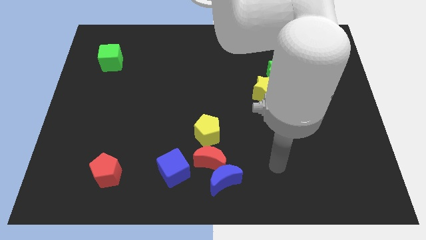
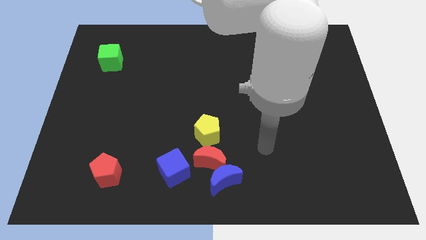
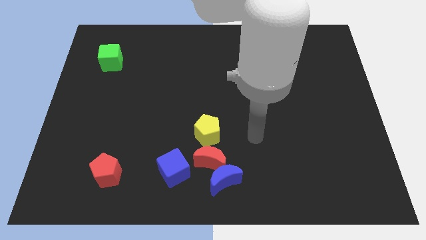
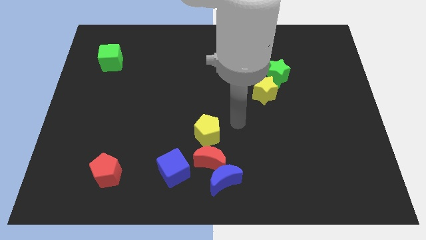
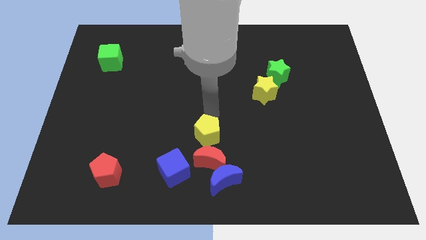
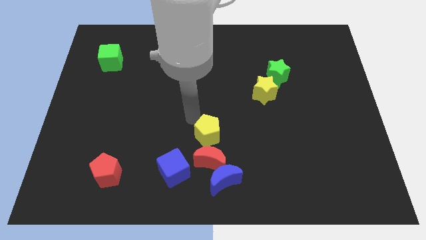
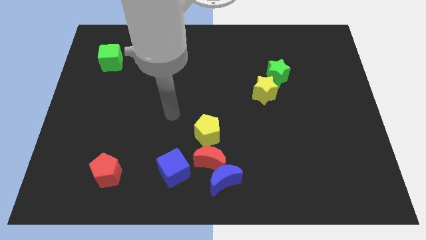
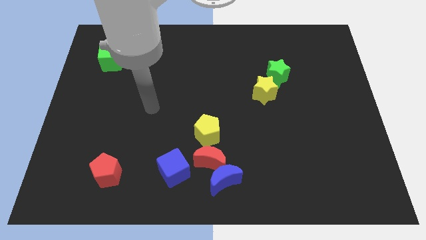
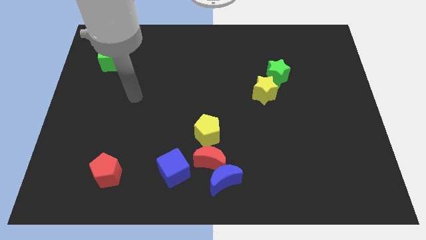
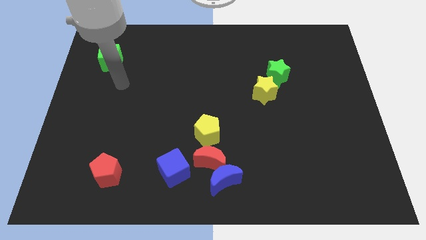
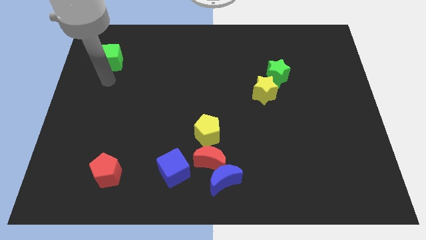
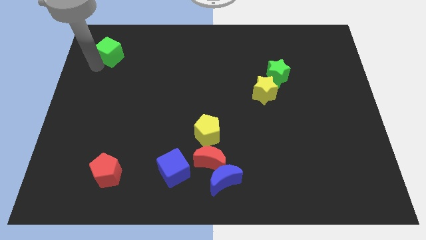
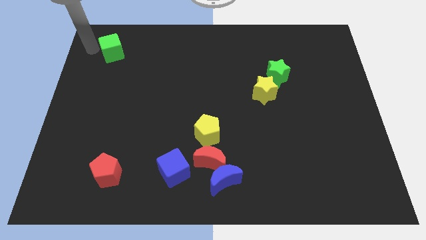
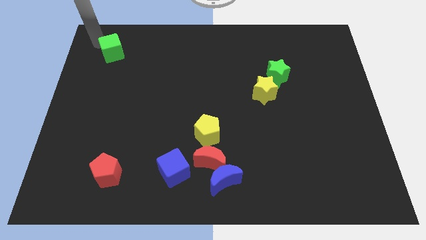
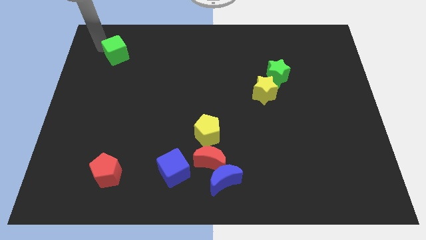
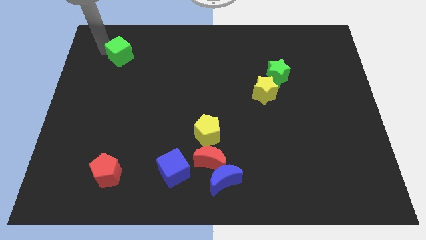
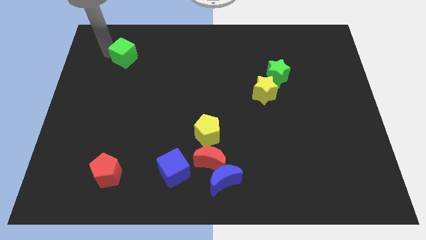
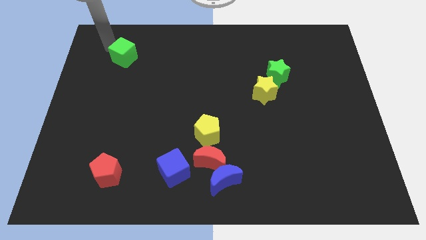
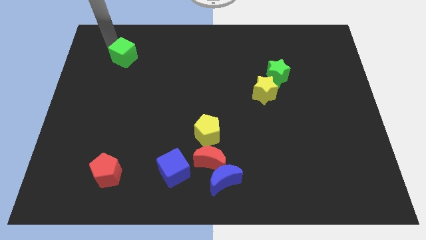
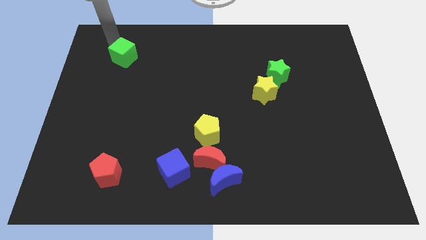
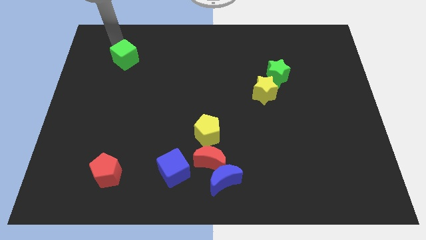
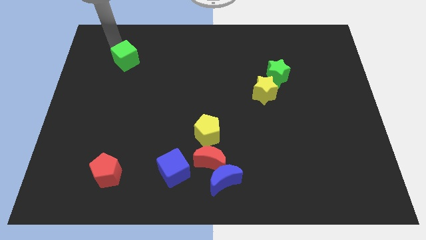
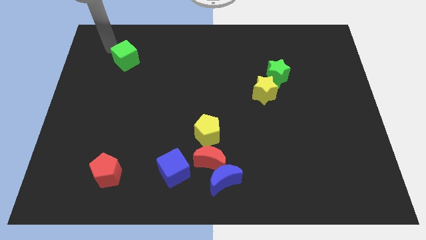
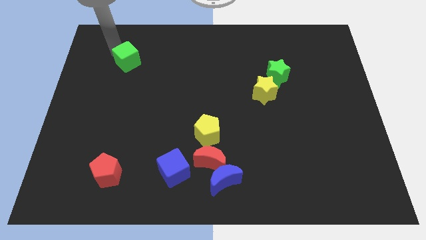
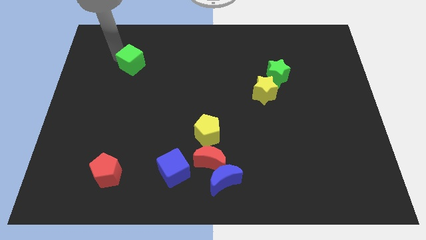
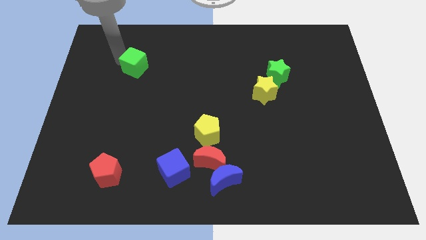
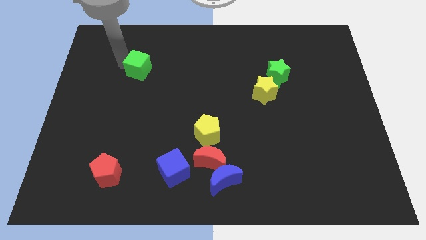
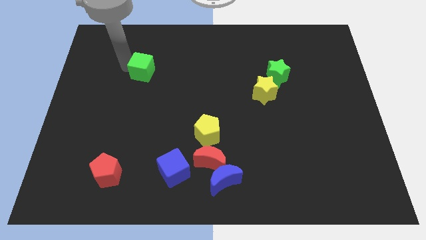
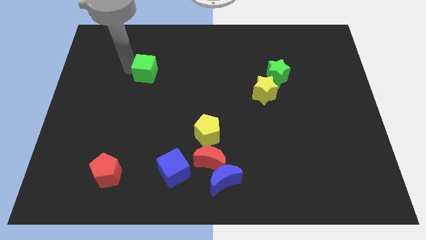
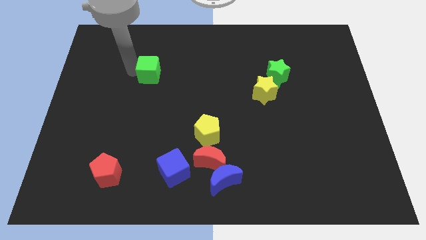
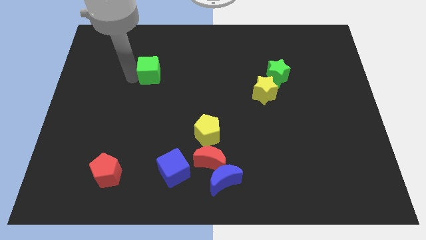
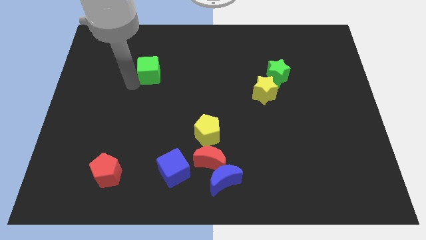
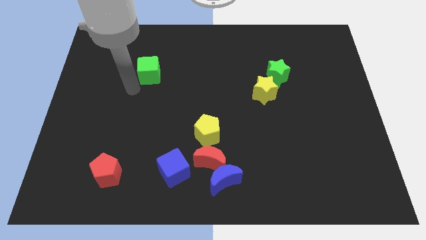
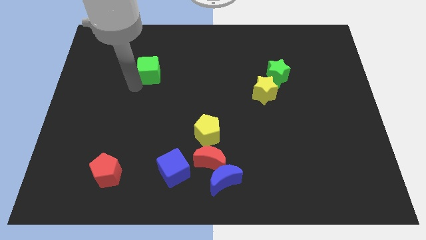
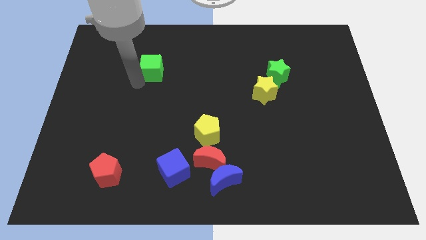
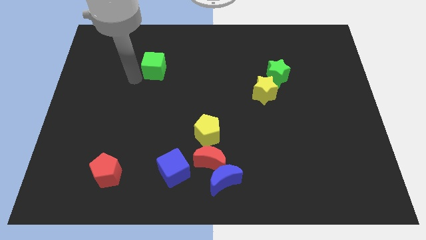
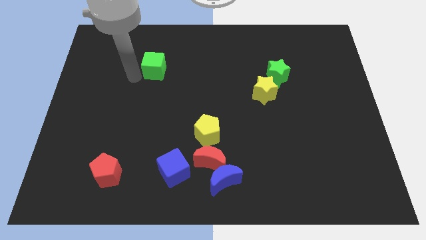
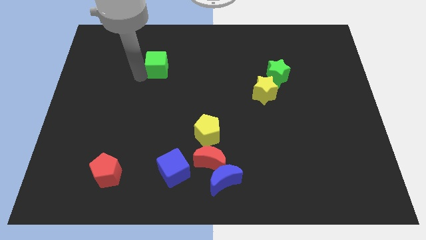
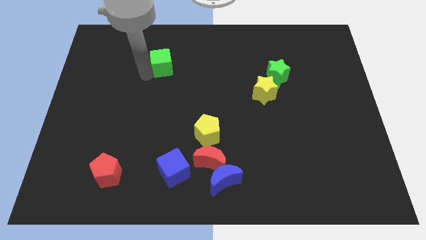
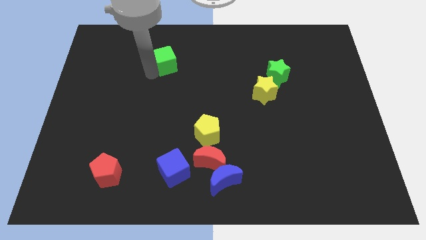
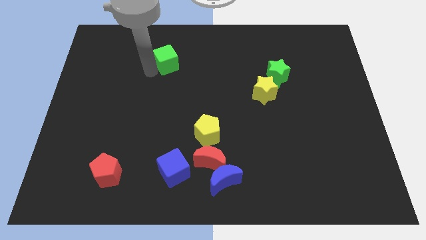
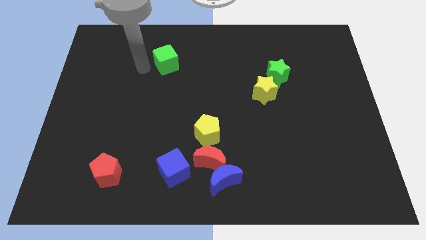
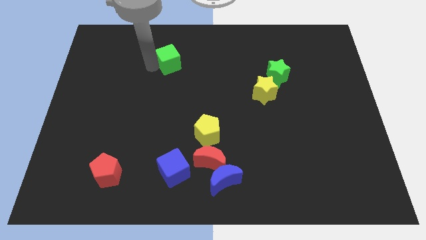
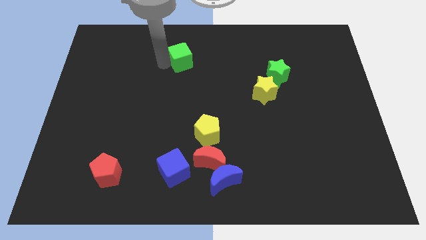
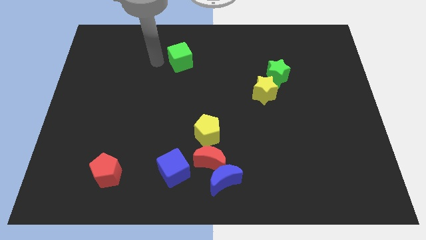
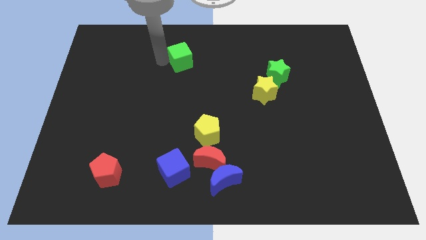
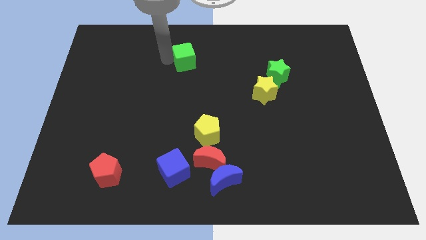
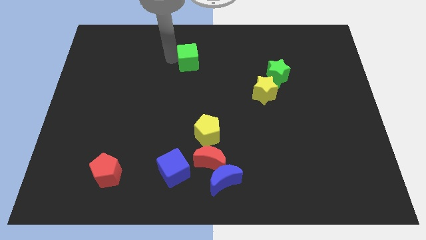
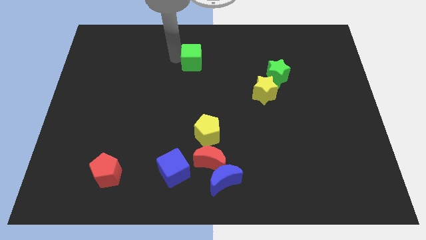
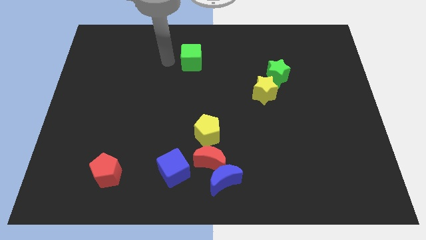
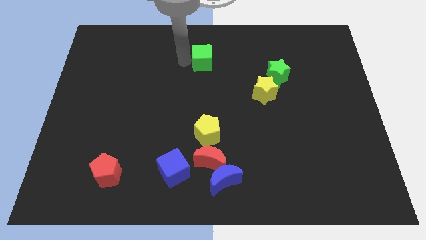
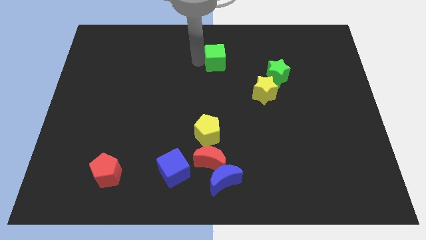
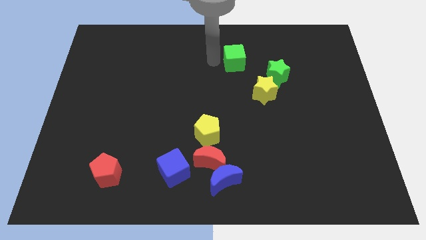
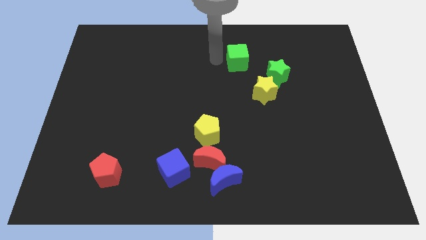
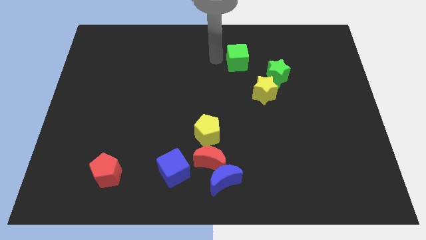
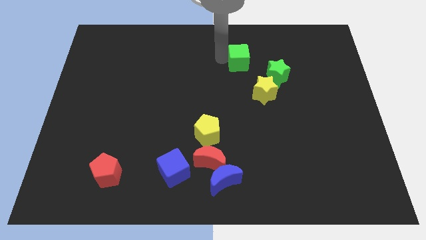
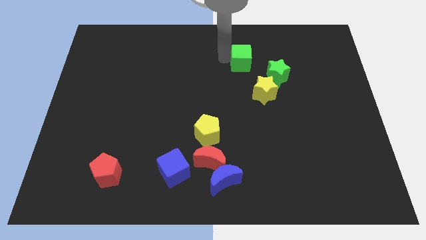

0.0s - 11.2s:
move the green cube to the top of the yellow star

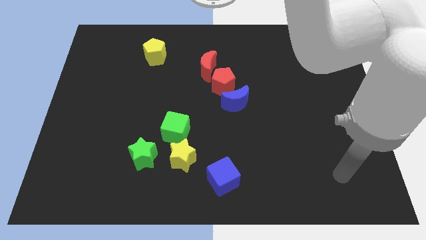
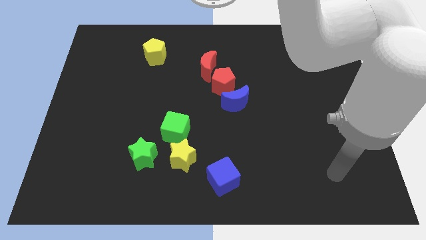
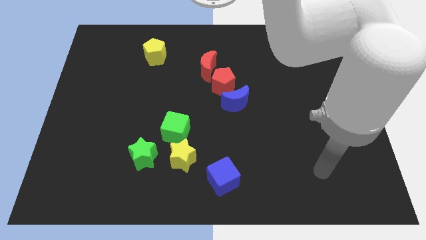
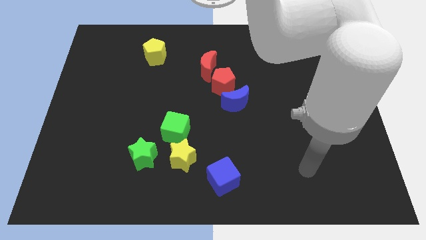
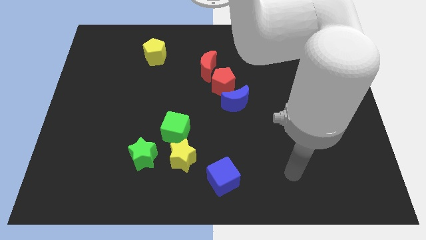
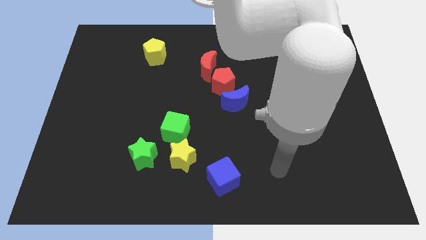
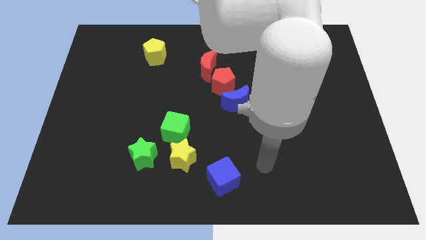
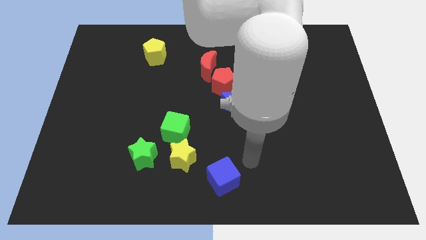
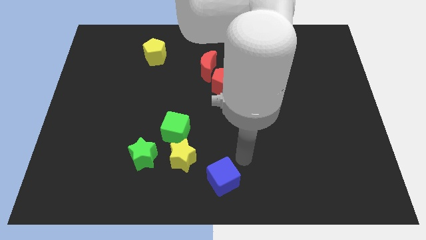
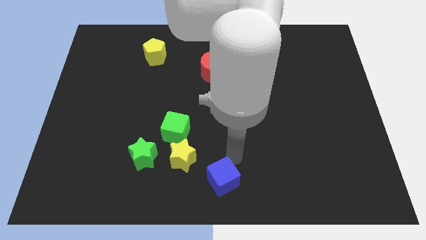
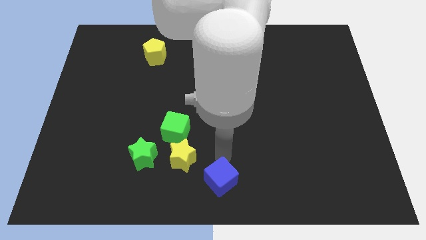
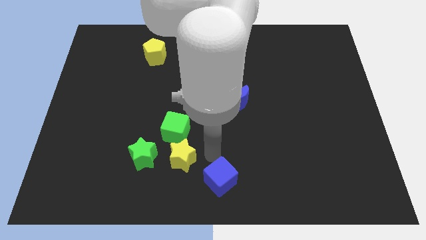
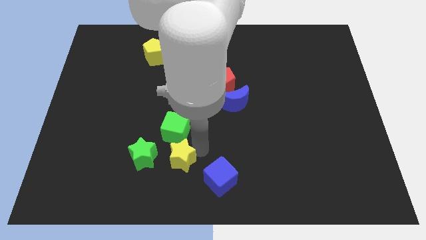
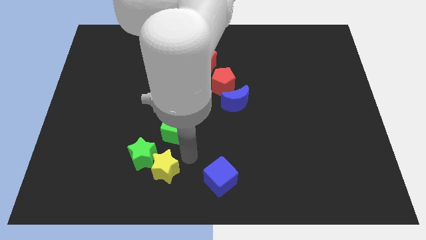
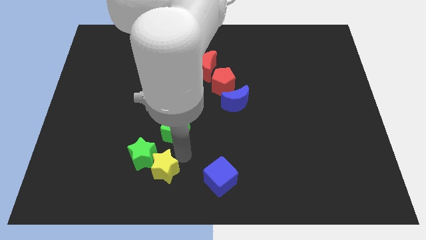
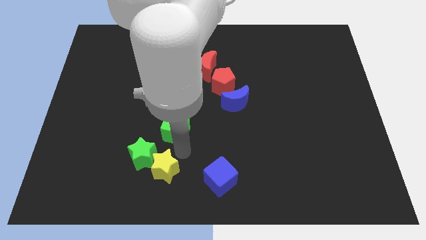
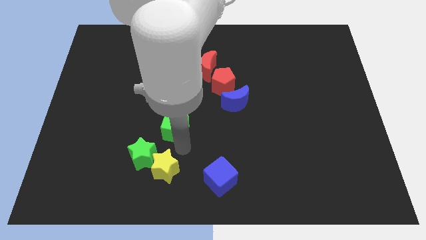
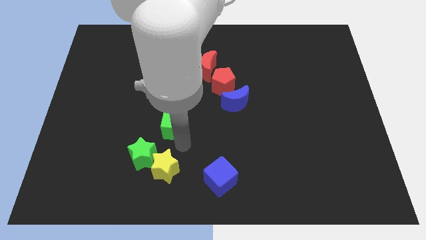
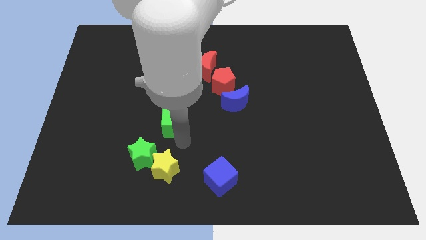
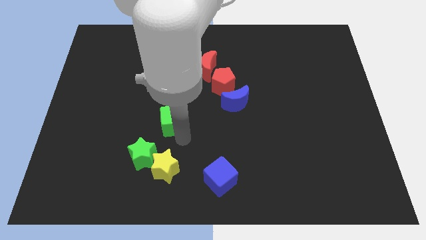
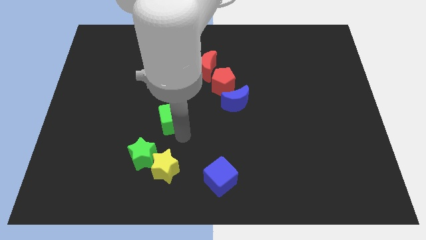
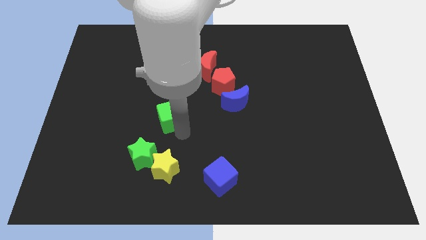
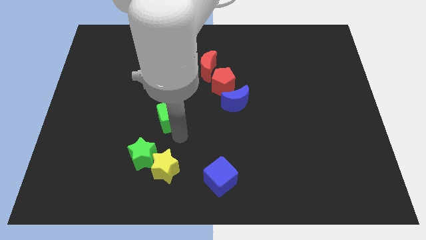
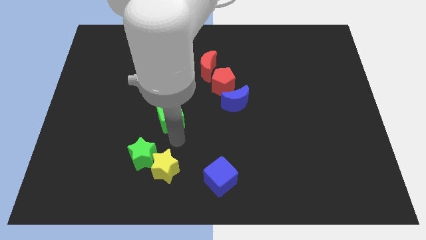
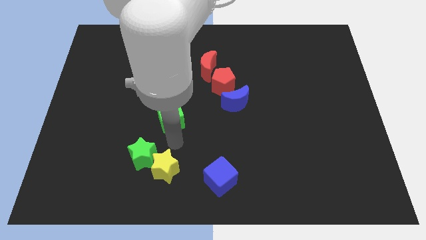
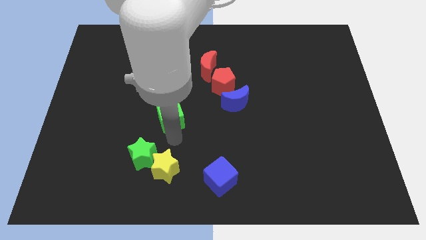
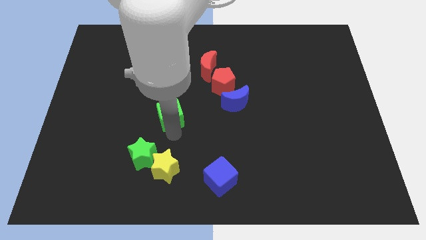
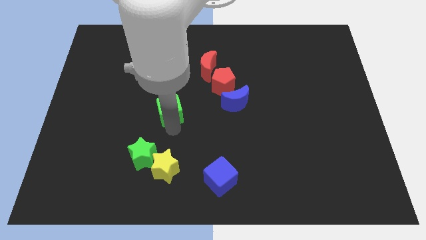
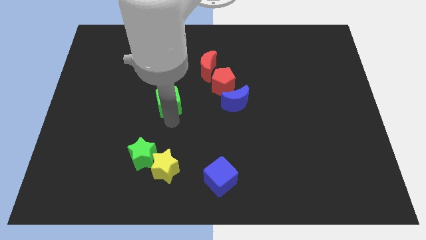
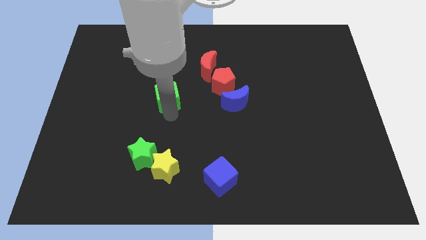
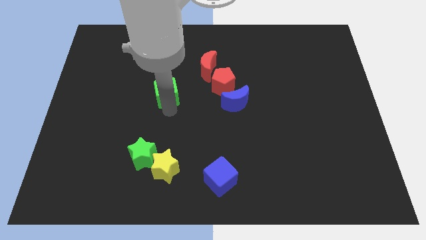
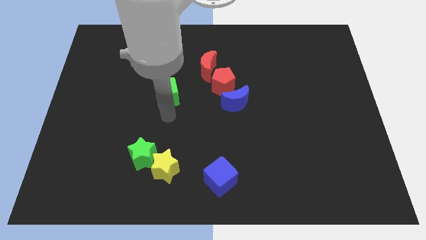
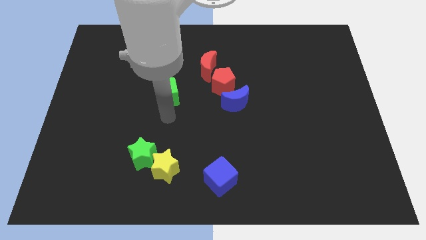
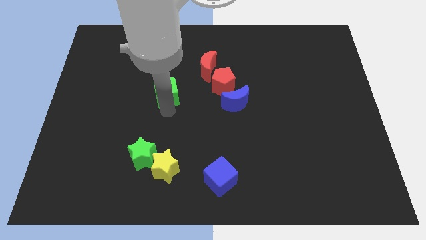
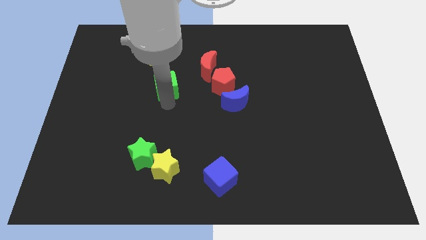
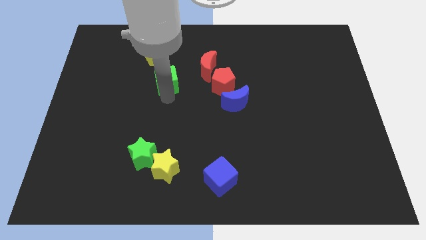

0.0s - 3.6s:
push the green cube left of the red moon
